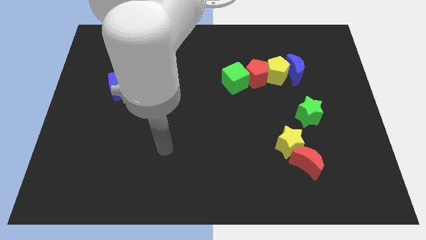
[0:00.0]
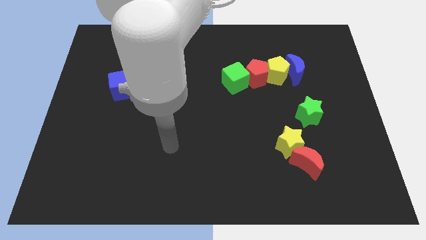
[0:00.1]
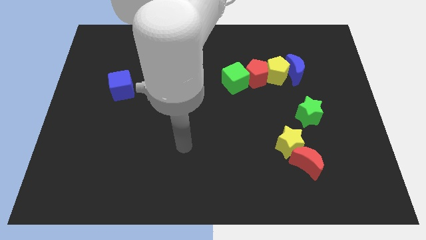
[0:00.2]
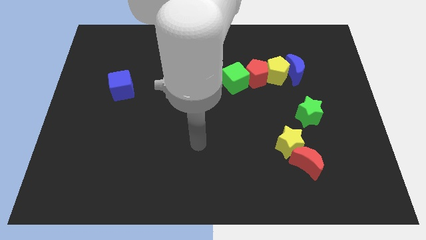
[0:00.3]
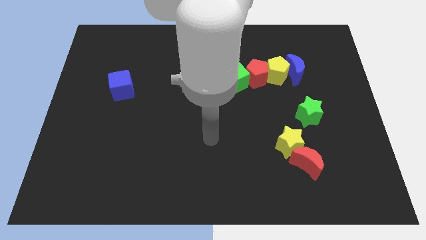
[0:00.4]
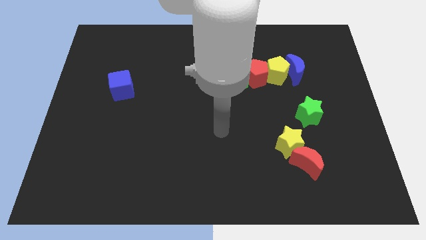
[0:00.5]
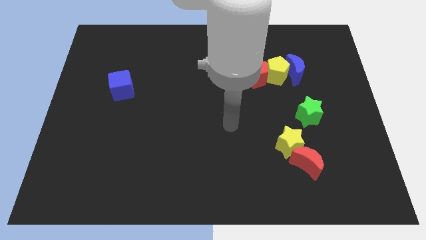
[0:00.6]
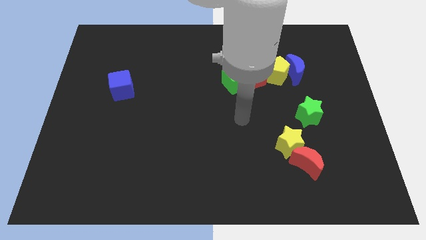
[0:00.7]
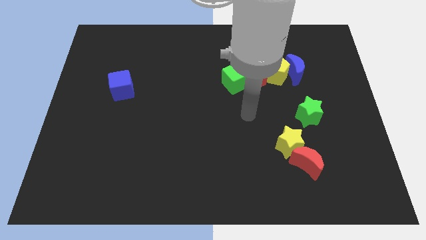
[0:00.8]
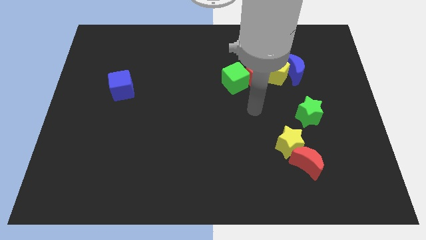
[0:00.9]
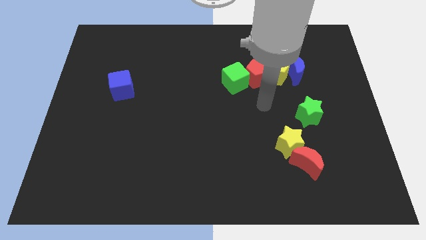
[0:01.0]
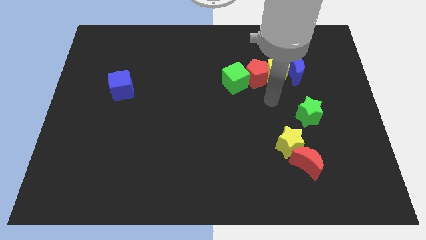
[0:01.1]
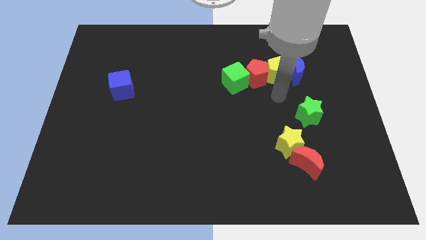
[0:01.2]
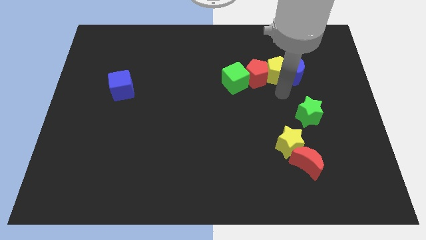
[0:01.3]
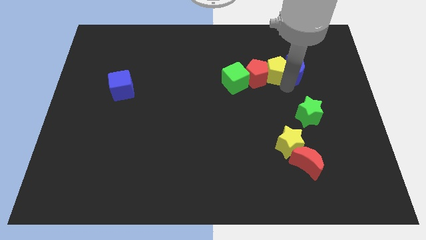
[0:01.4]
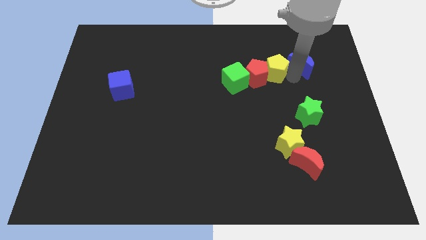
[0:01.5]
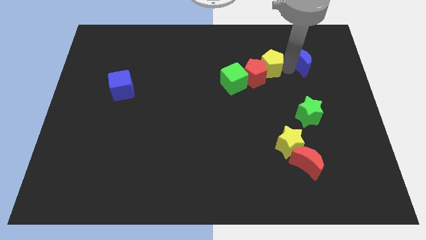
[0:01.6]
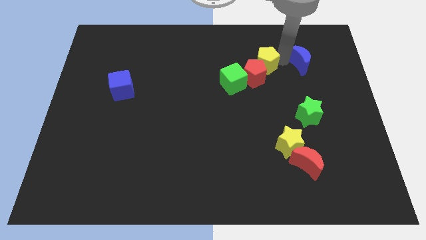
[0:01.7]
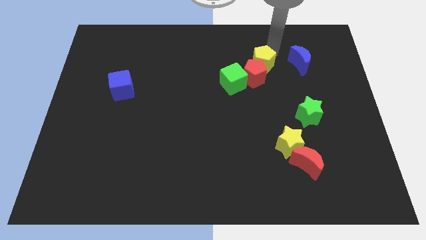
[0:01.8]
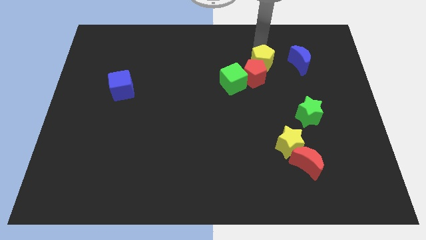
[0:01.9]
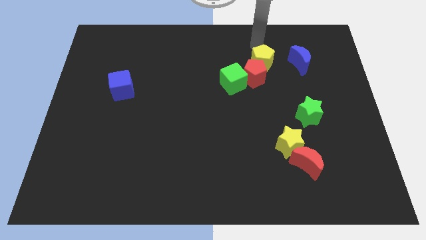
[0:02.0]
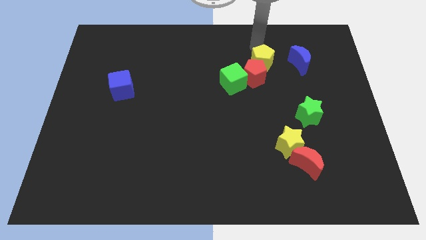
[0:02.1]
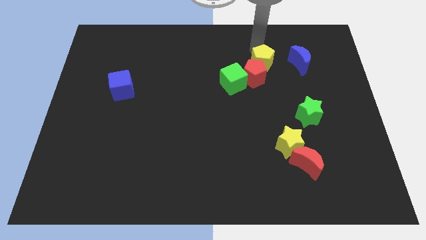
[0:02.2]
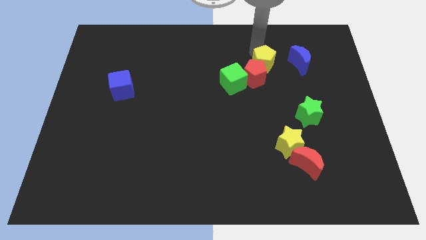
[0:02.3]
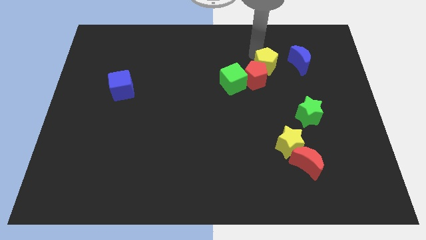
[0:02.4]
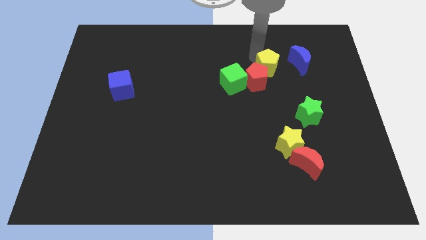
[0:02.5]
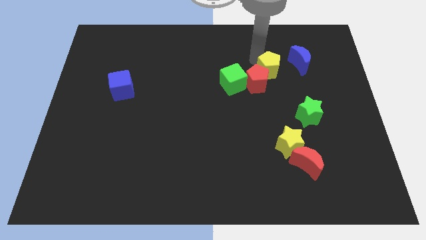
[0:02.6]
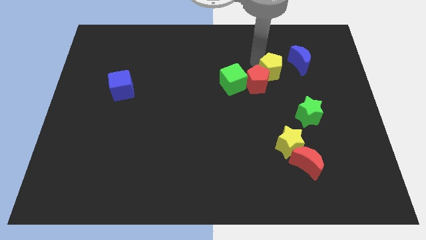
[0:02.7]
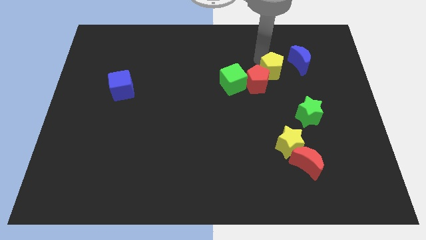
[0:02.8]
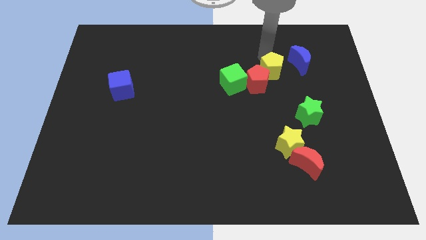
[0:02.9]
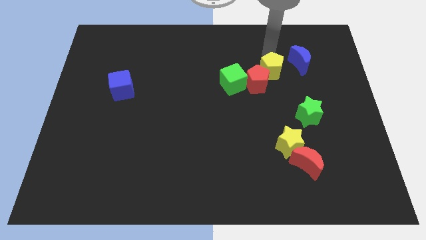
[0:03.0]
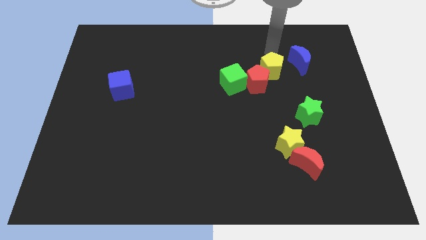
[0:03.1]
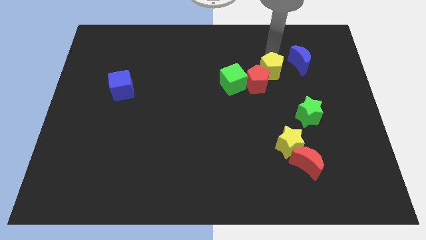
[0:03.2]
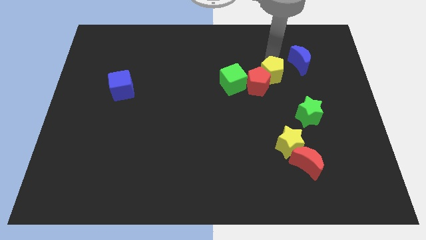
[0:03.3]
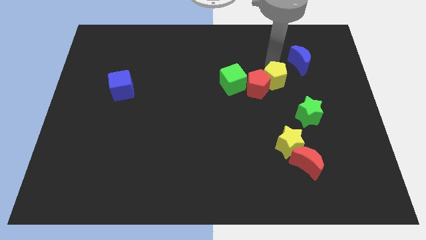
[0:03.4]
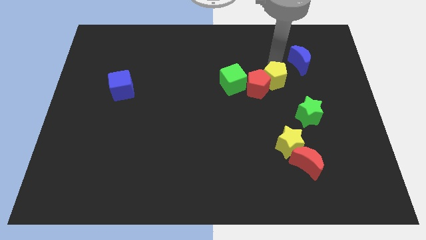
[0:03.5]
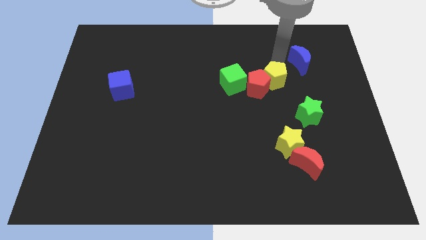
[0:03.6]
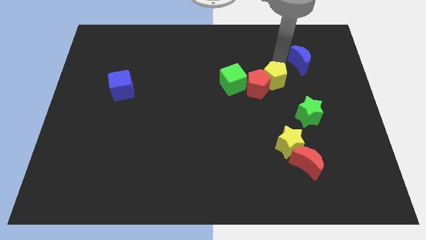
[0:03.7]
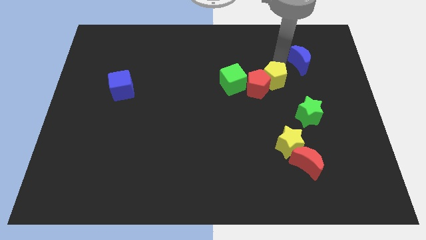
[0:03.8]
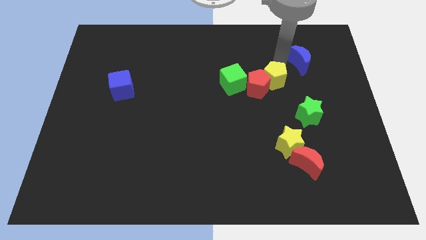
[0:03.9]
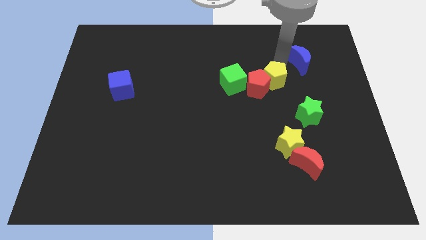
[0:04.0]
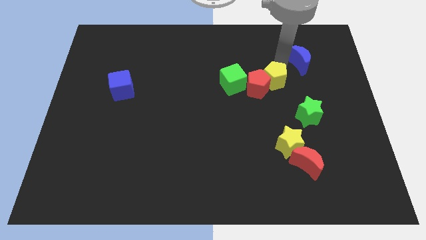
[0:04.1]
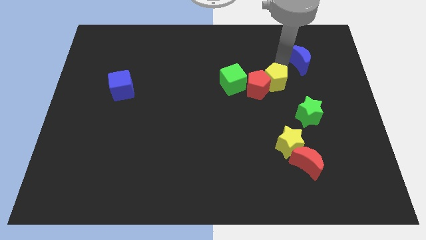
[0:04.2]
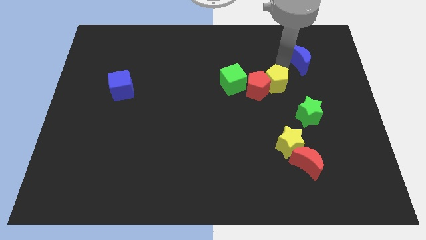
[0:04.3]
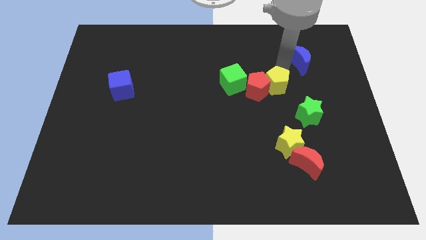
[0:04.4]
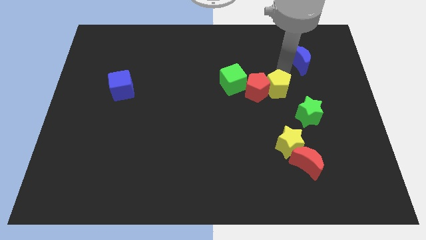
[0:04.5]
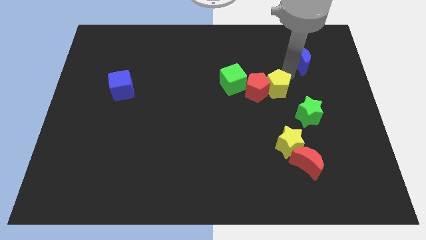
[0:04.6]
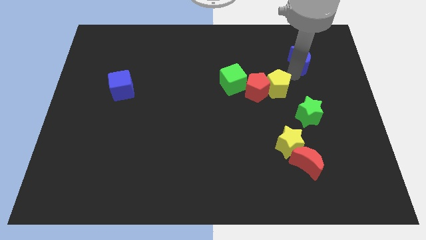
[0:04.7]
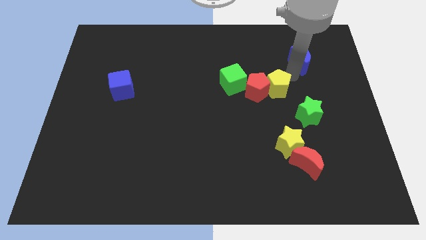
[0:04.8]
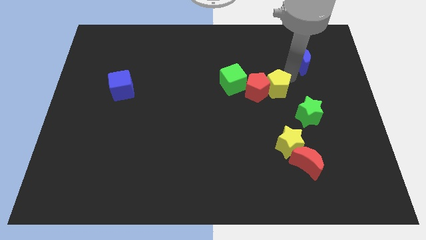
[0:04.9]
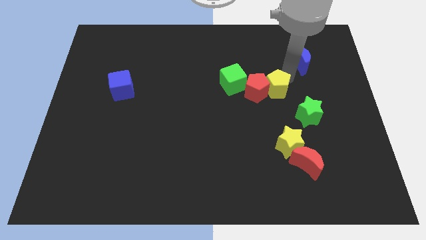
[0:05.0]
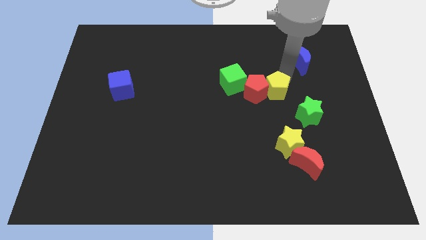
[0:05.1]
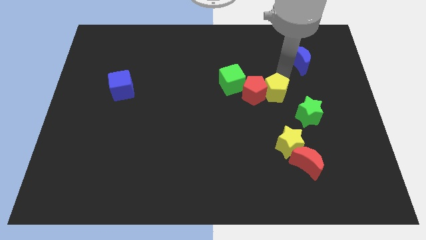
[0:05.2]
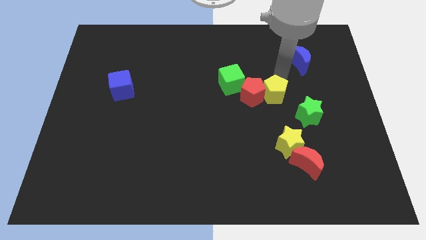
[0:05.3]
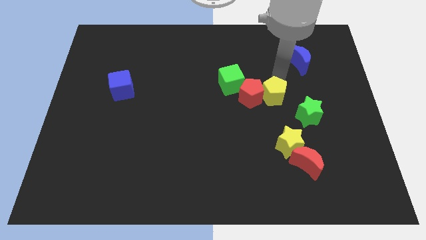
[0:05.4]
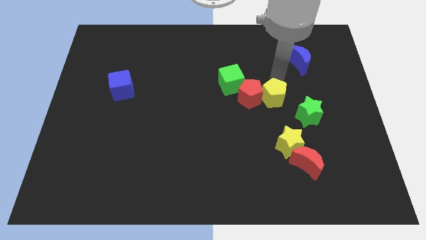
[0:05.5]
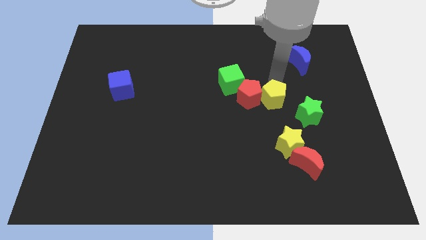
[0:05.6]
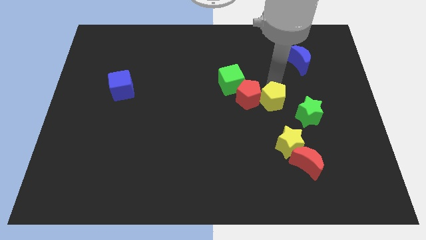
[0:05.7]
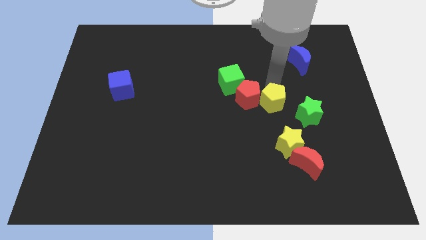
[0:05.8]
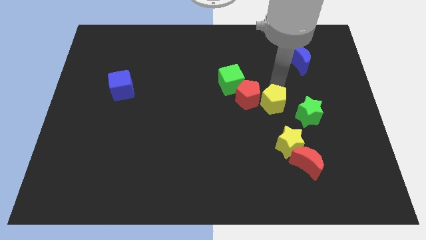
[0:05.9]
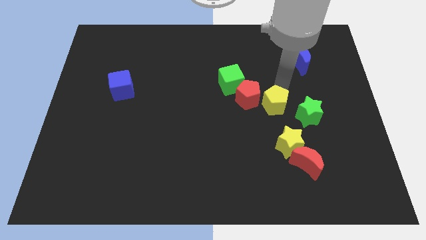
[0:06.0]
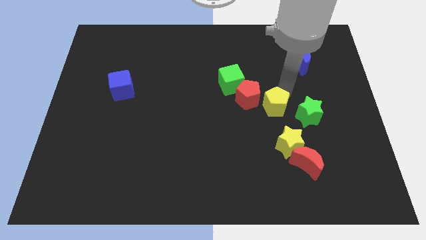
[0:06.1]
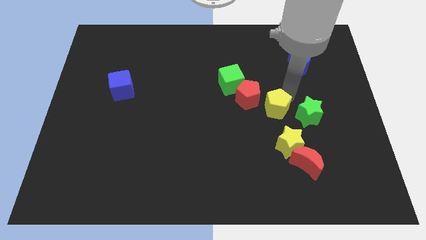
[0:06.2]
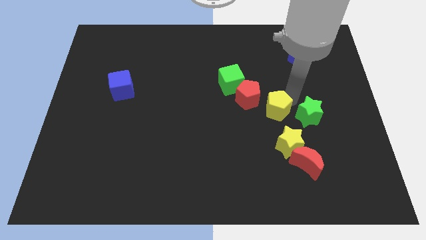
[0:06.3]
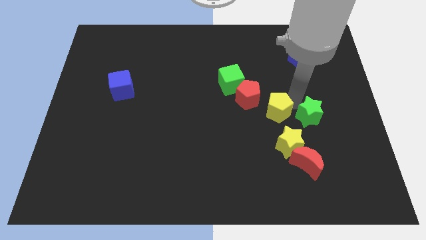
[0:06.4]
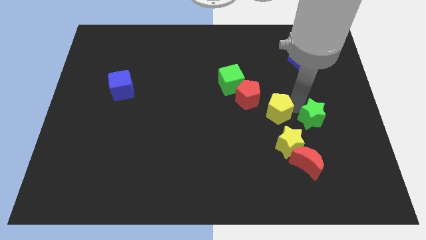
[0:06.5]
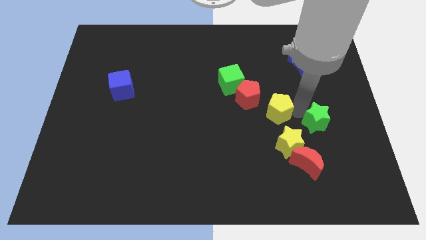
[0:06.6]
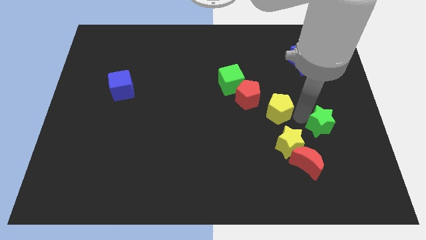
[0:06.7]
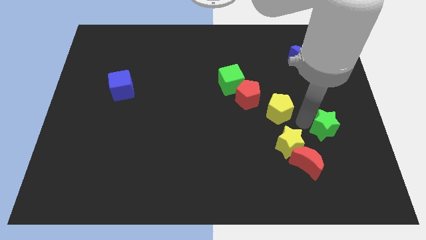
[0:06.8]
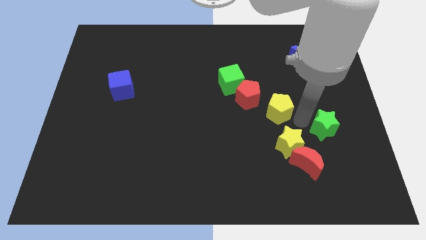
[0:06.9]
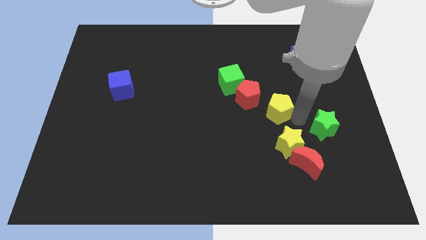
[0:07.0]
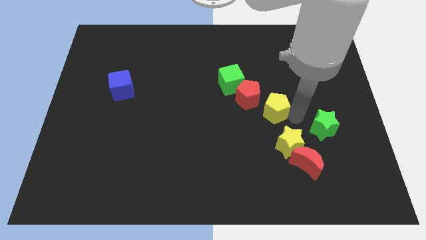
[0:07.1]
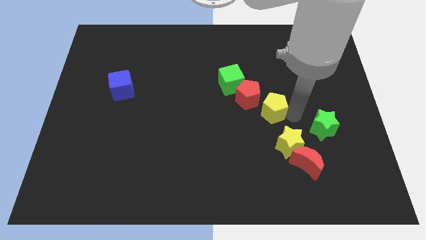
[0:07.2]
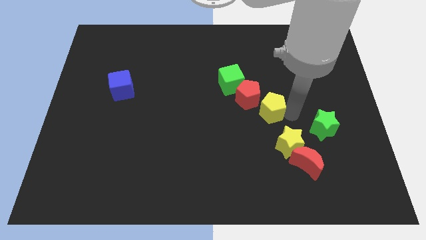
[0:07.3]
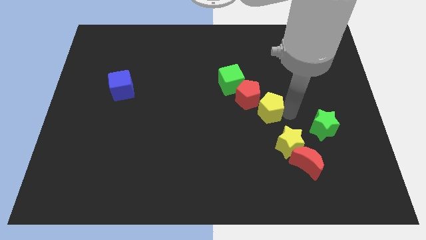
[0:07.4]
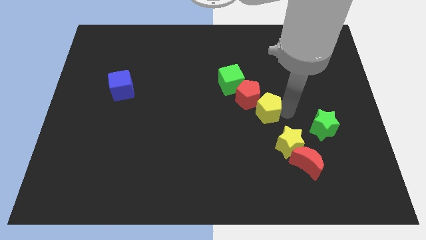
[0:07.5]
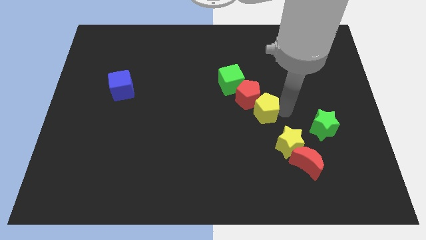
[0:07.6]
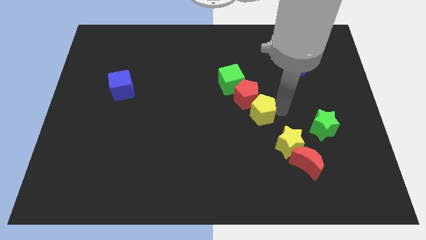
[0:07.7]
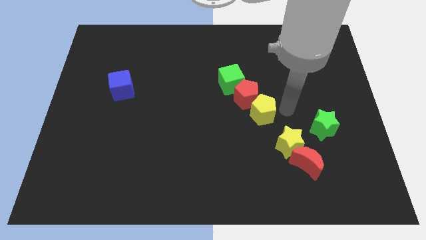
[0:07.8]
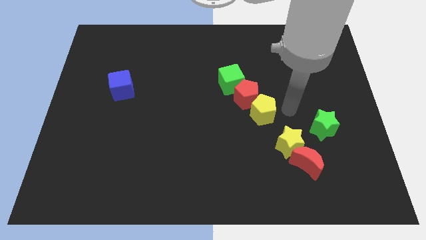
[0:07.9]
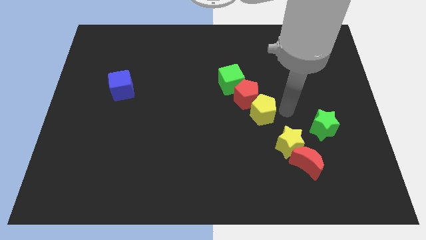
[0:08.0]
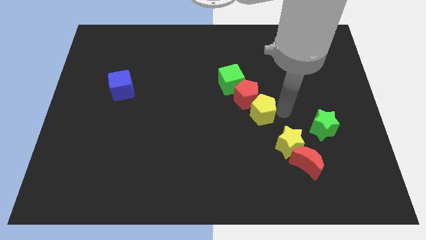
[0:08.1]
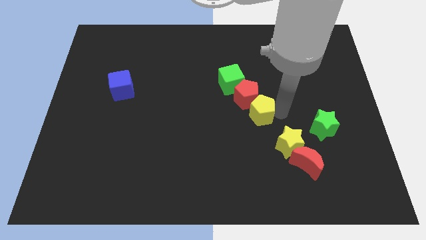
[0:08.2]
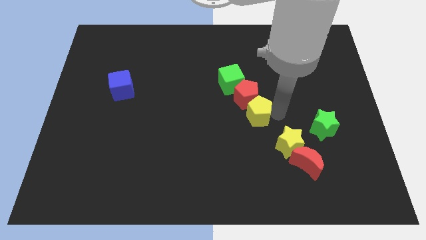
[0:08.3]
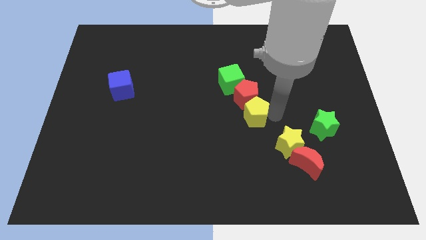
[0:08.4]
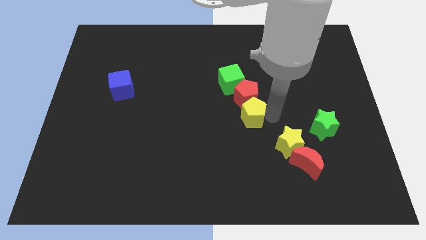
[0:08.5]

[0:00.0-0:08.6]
slide the yellow pentagon below the green cube
